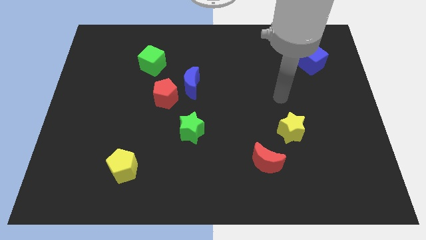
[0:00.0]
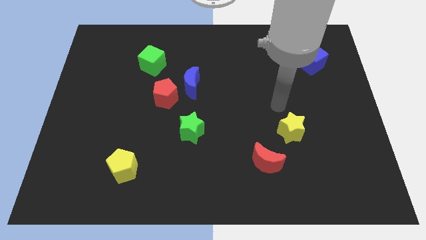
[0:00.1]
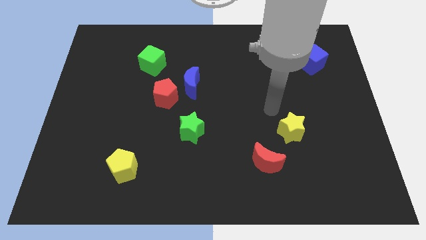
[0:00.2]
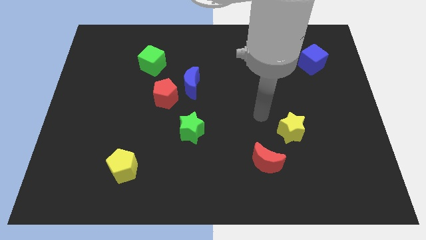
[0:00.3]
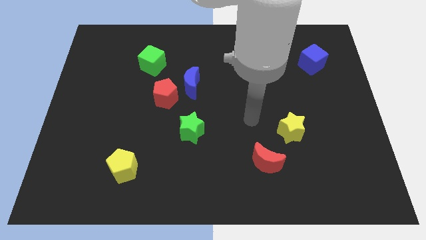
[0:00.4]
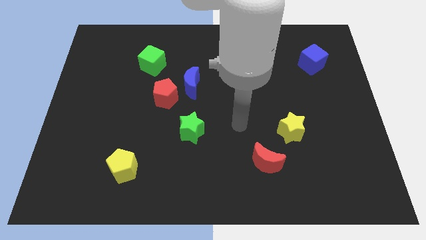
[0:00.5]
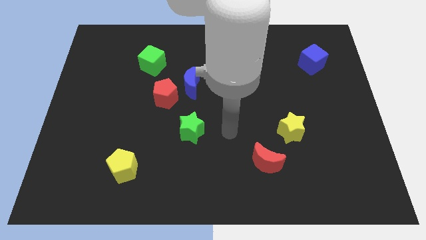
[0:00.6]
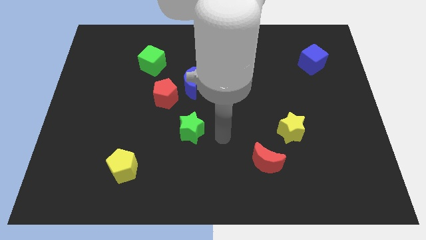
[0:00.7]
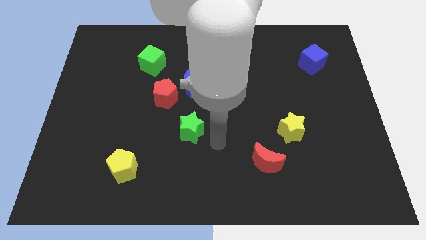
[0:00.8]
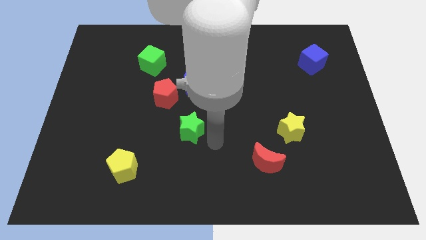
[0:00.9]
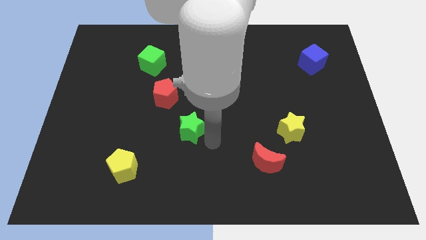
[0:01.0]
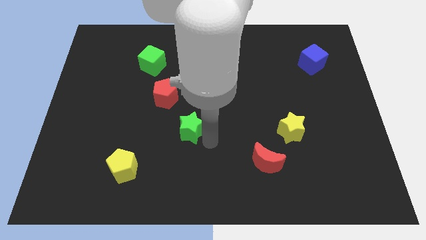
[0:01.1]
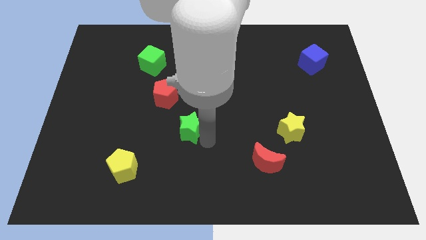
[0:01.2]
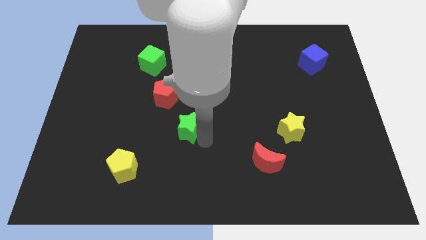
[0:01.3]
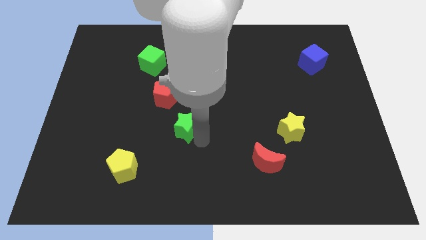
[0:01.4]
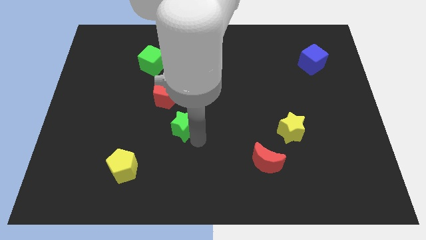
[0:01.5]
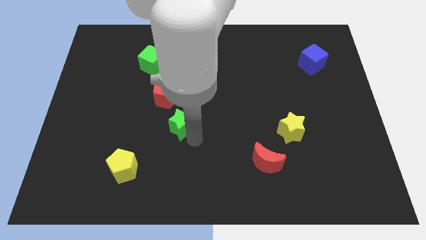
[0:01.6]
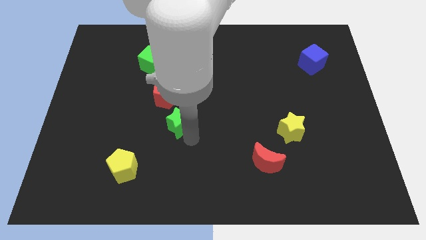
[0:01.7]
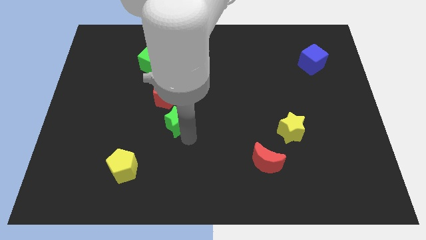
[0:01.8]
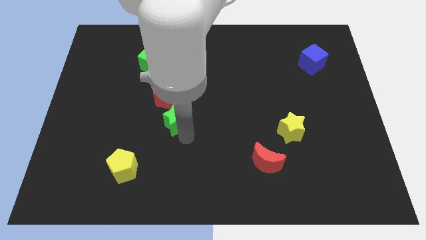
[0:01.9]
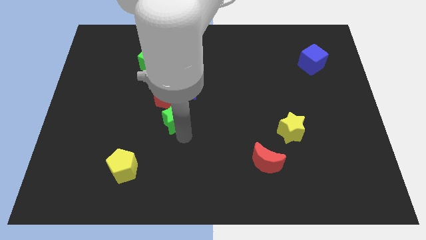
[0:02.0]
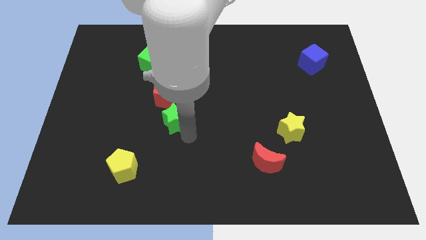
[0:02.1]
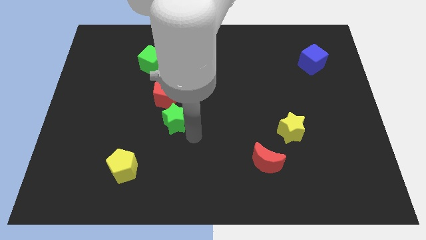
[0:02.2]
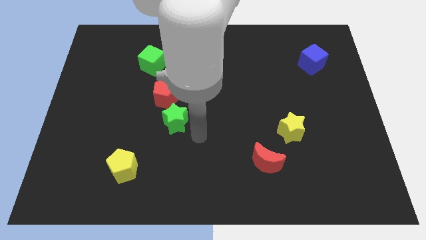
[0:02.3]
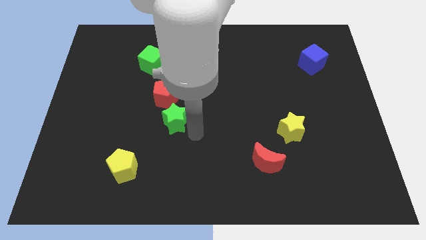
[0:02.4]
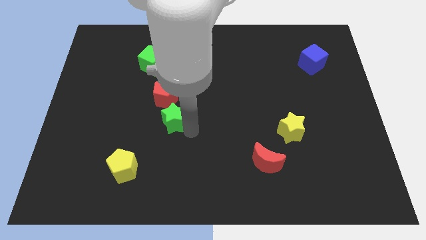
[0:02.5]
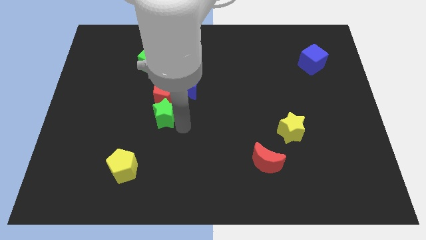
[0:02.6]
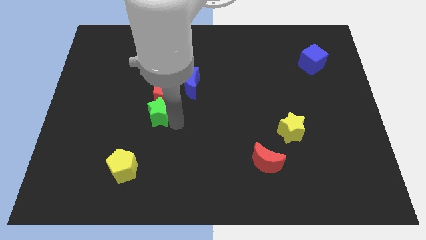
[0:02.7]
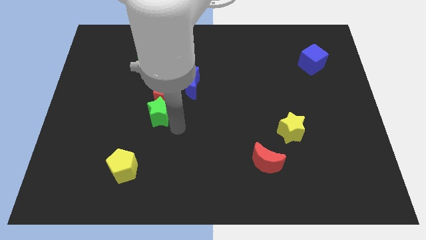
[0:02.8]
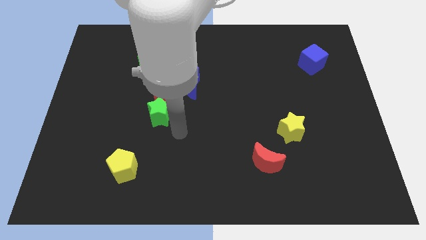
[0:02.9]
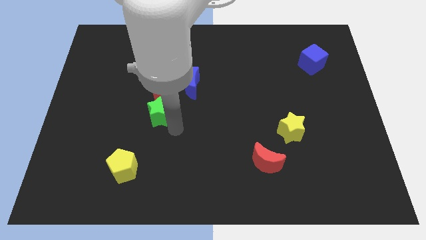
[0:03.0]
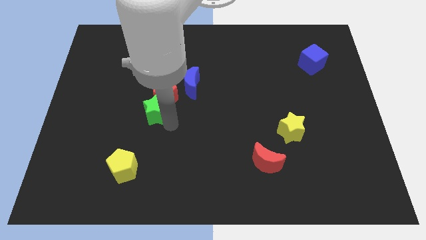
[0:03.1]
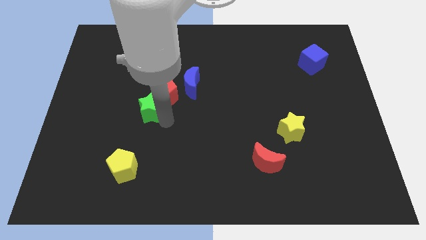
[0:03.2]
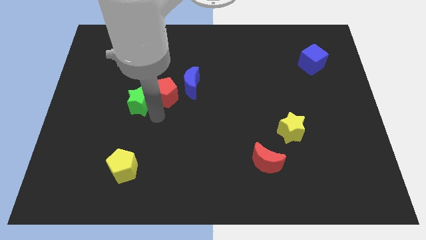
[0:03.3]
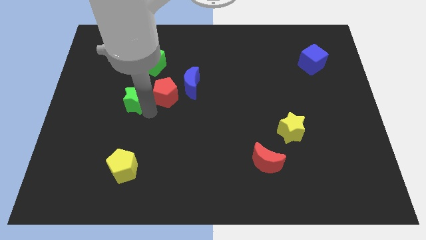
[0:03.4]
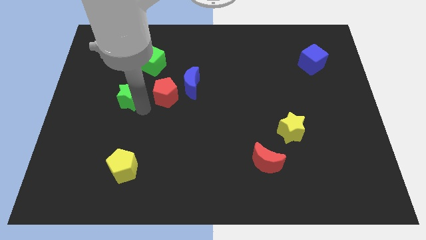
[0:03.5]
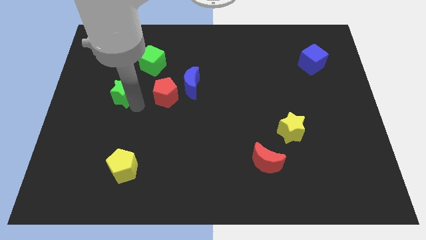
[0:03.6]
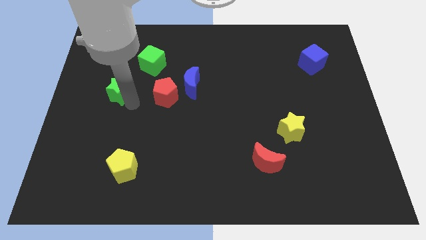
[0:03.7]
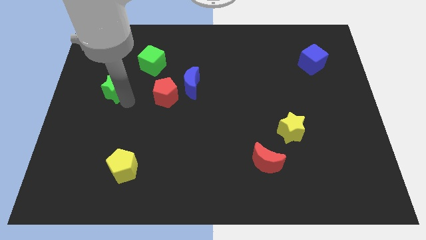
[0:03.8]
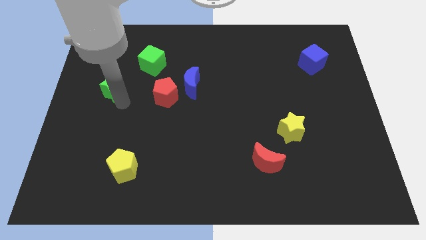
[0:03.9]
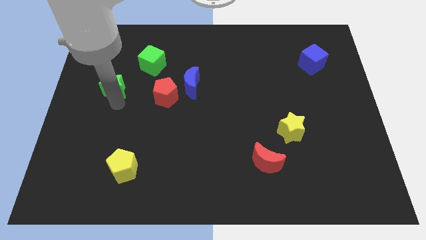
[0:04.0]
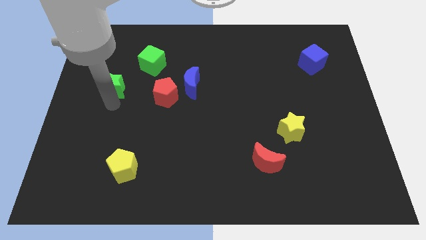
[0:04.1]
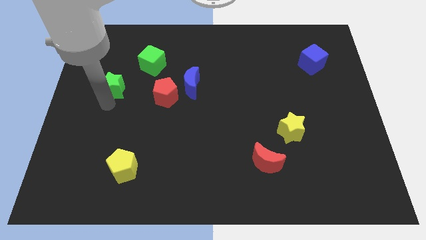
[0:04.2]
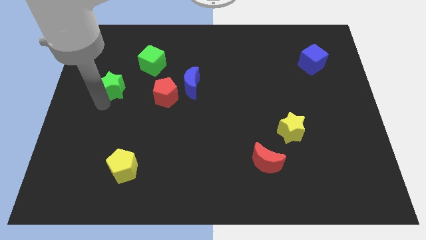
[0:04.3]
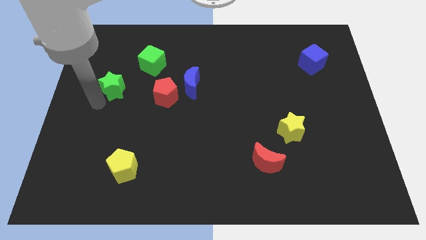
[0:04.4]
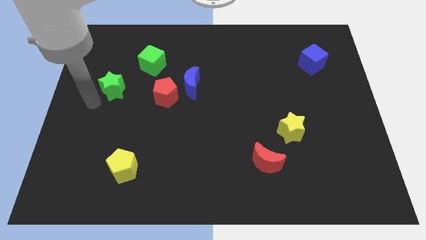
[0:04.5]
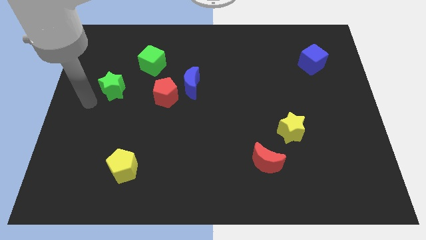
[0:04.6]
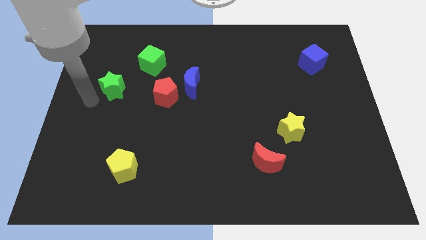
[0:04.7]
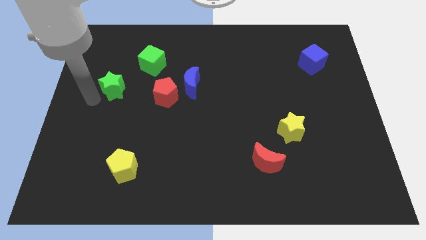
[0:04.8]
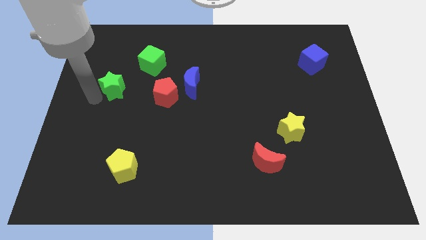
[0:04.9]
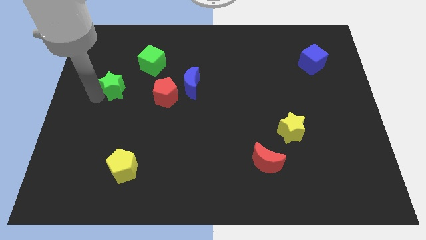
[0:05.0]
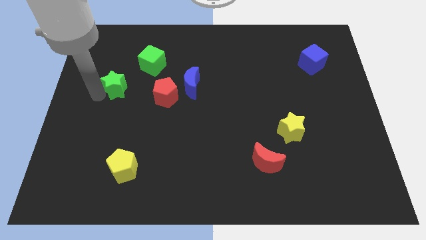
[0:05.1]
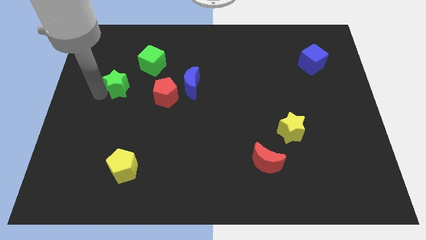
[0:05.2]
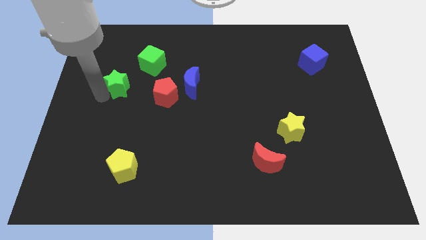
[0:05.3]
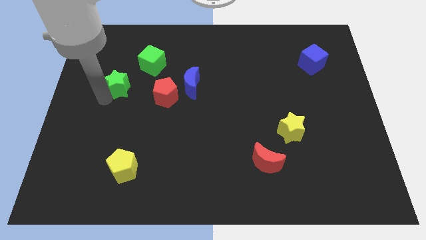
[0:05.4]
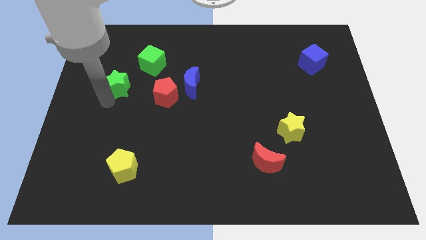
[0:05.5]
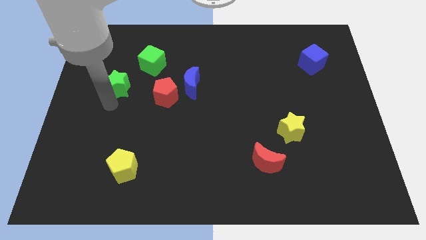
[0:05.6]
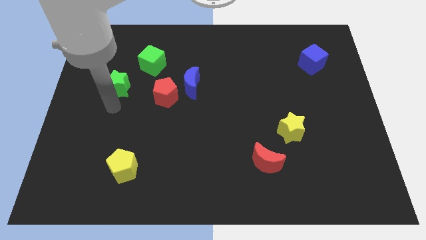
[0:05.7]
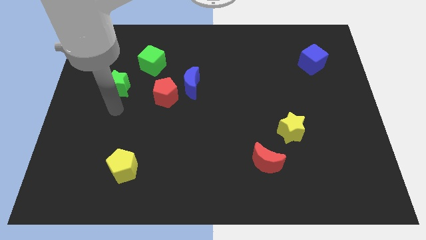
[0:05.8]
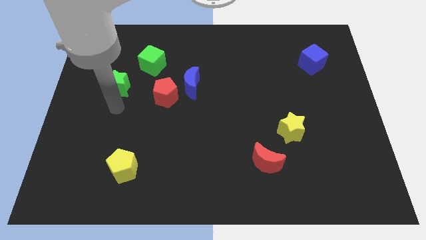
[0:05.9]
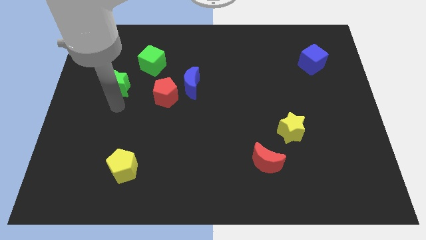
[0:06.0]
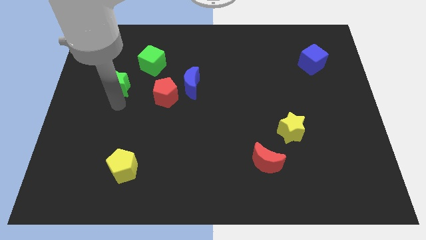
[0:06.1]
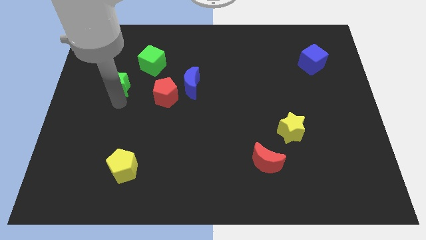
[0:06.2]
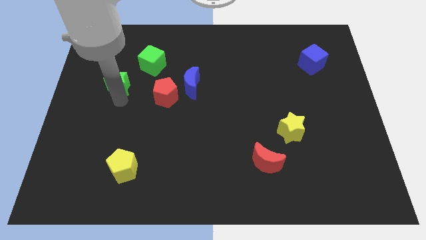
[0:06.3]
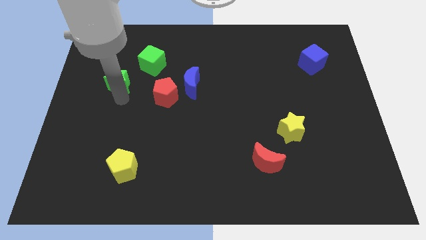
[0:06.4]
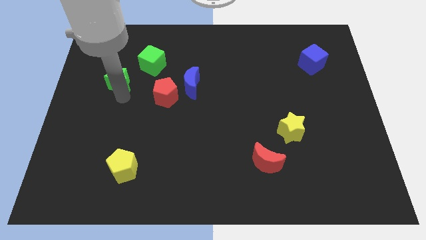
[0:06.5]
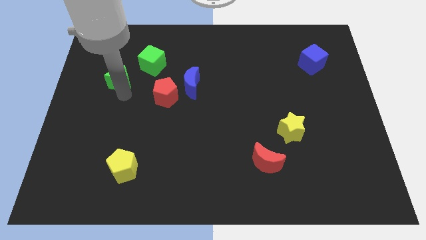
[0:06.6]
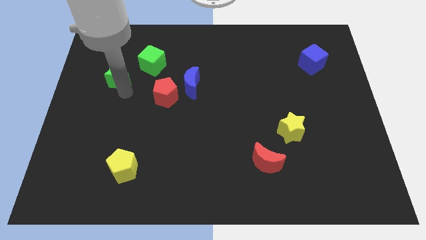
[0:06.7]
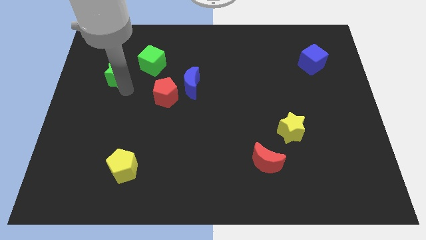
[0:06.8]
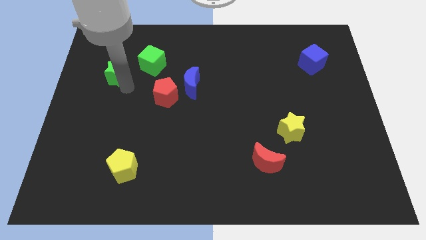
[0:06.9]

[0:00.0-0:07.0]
push the green star to the left of the green cube
